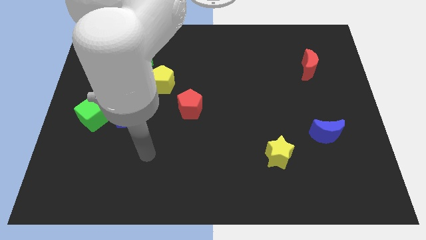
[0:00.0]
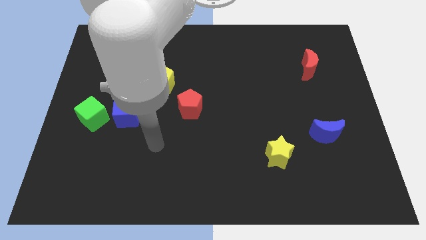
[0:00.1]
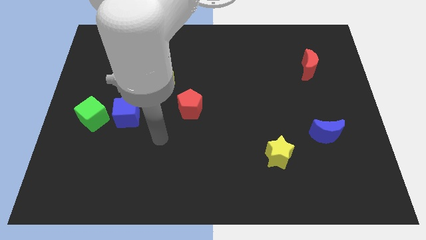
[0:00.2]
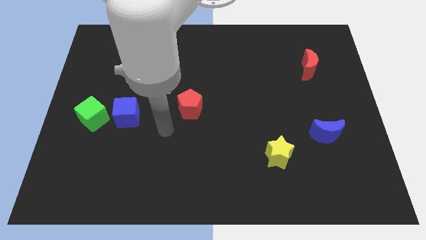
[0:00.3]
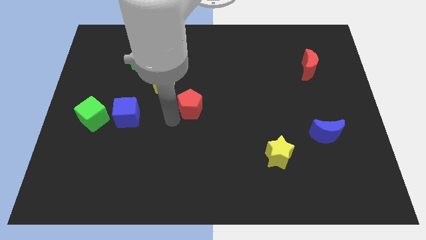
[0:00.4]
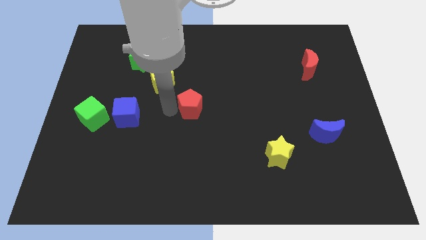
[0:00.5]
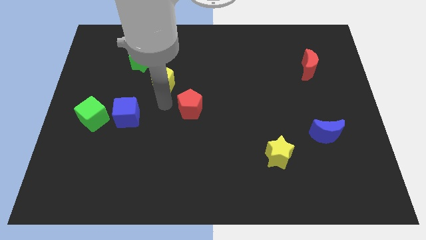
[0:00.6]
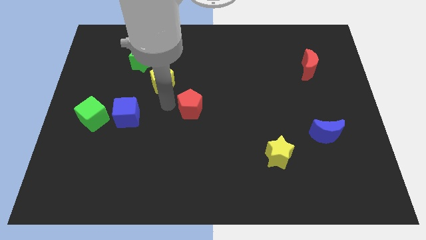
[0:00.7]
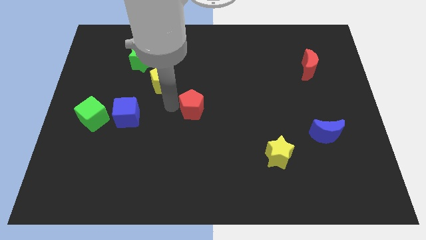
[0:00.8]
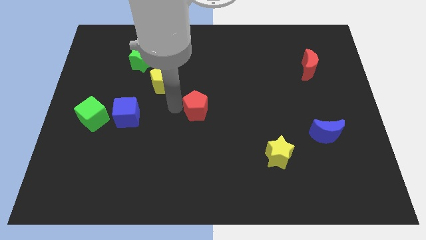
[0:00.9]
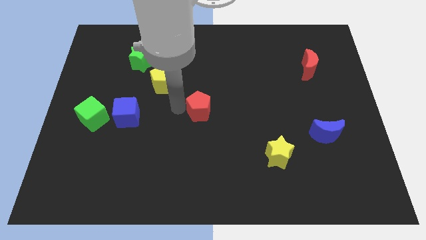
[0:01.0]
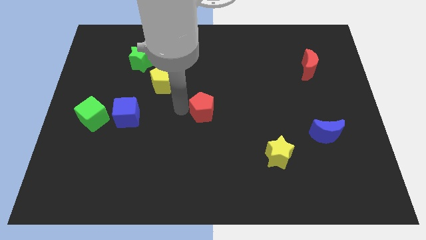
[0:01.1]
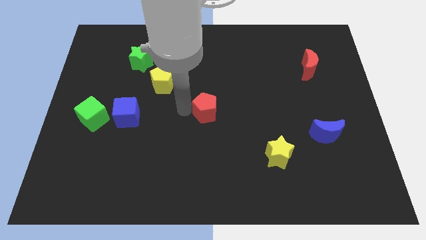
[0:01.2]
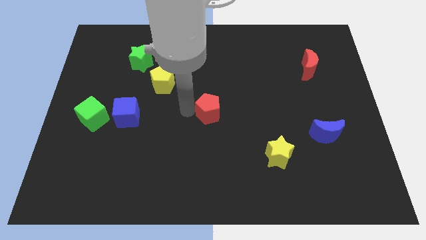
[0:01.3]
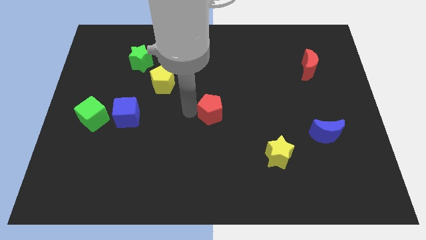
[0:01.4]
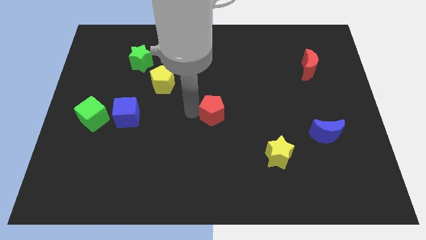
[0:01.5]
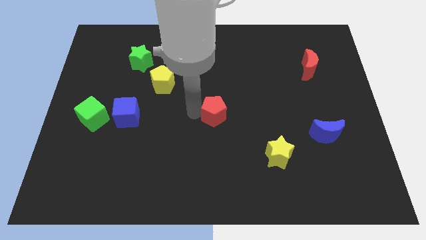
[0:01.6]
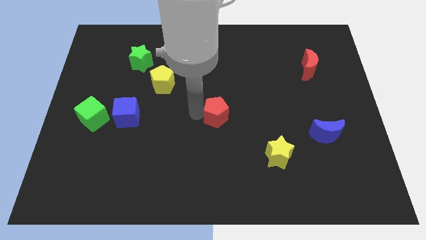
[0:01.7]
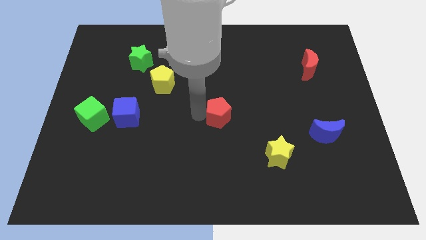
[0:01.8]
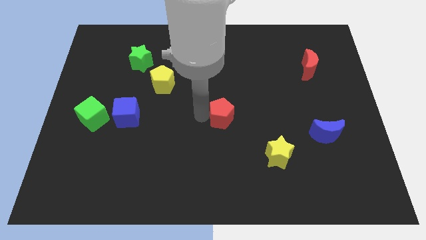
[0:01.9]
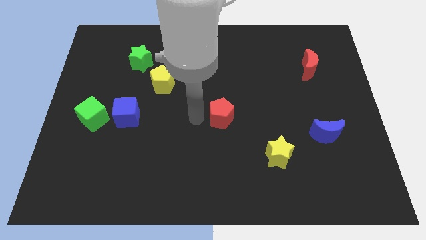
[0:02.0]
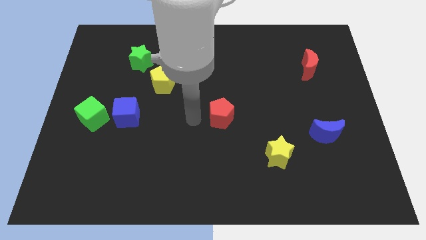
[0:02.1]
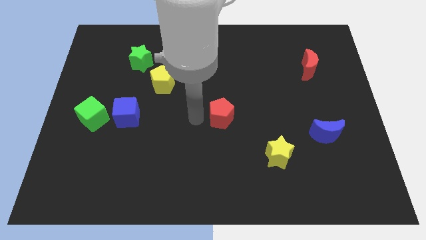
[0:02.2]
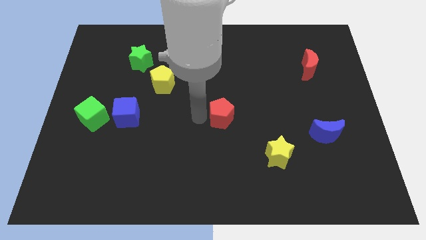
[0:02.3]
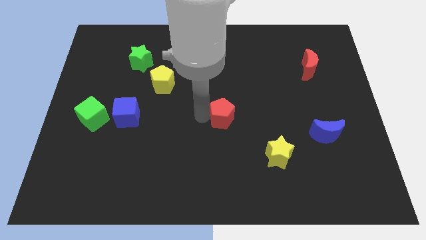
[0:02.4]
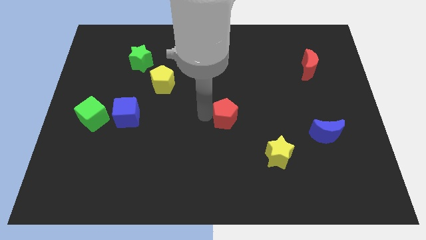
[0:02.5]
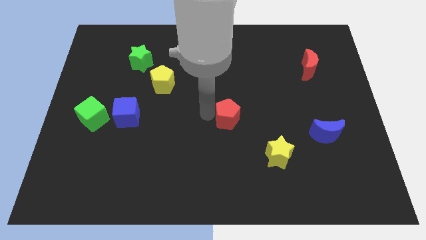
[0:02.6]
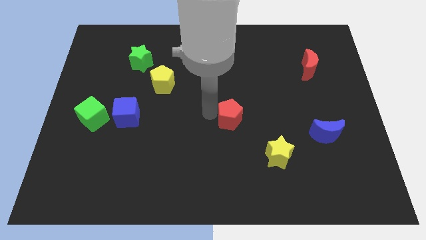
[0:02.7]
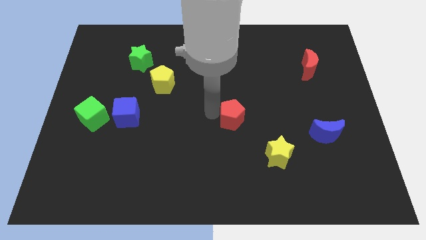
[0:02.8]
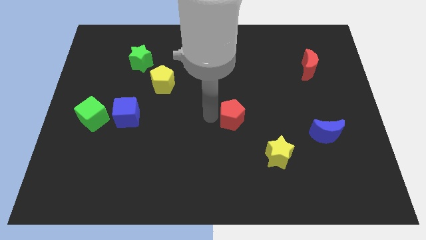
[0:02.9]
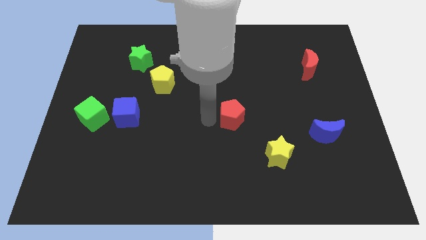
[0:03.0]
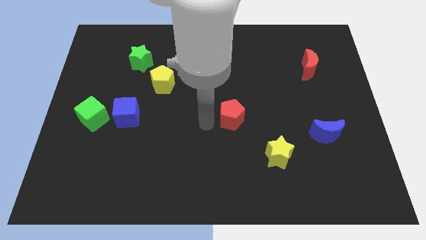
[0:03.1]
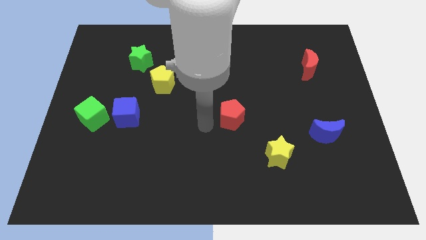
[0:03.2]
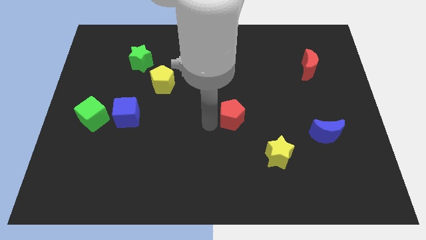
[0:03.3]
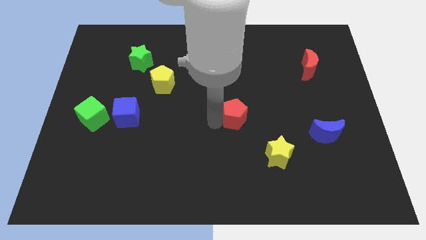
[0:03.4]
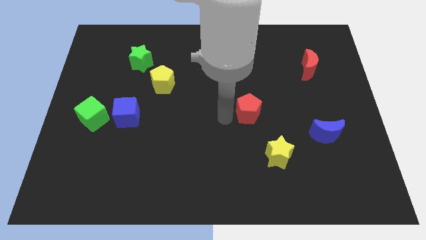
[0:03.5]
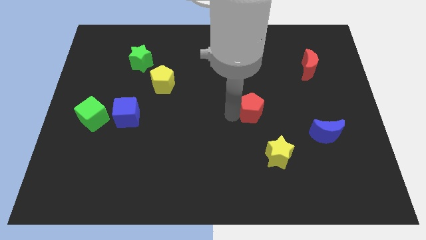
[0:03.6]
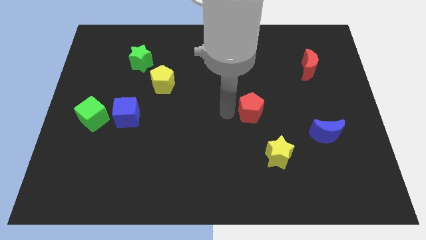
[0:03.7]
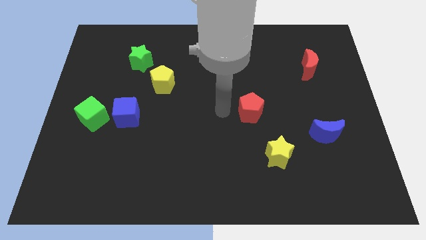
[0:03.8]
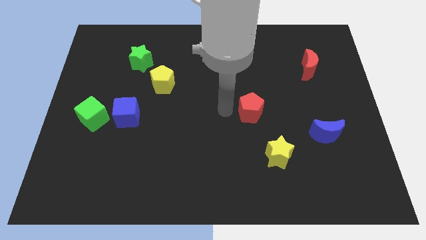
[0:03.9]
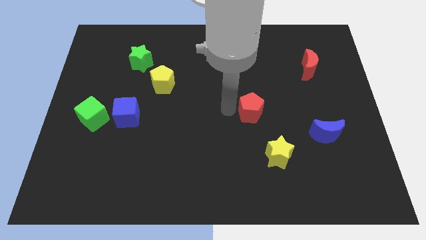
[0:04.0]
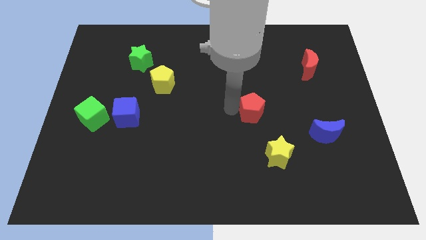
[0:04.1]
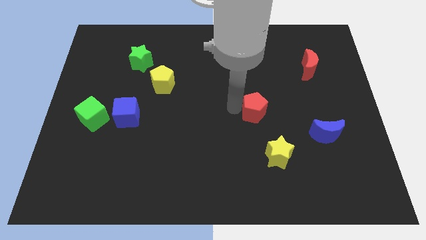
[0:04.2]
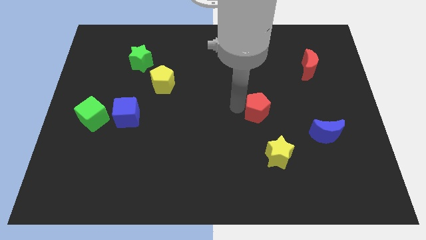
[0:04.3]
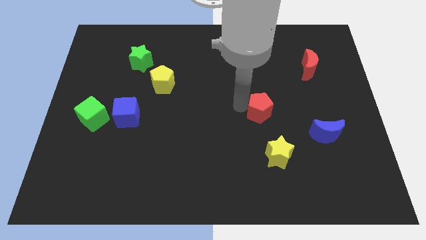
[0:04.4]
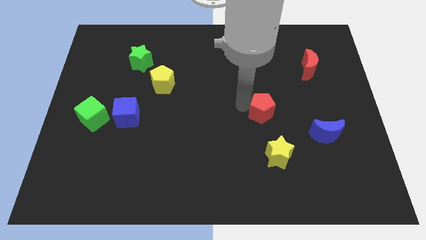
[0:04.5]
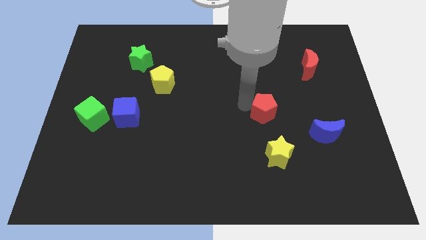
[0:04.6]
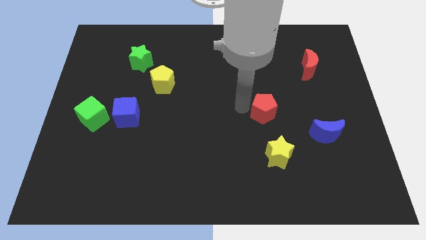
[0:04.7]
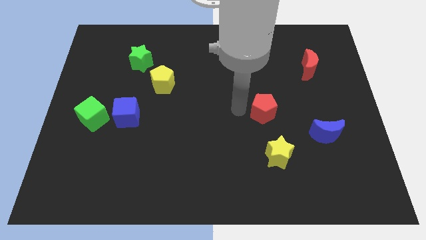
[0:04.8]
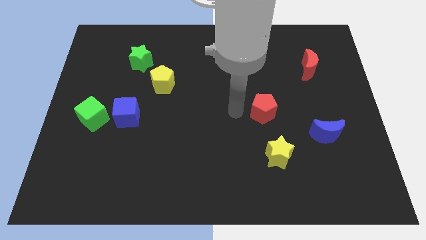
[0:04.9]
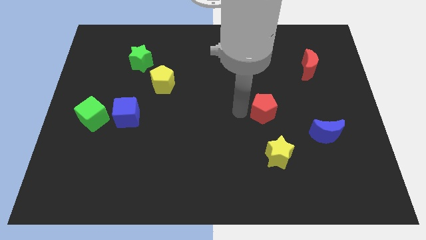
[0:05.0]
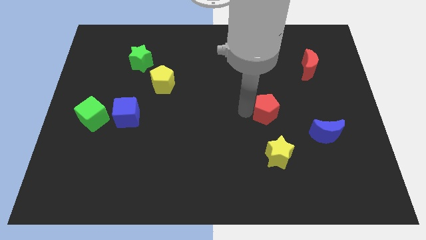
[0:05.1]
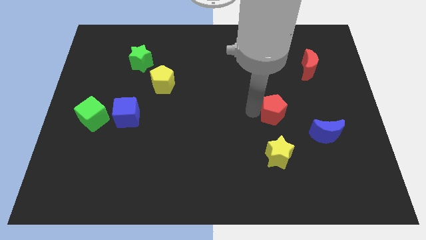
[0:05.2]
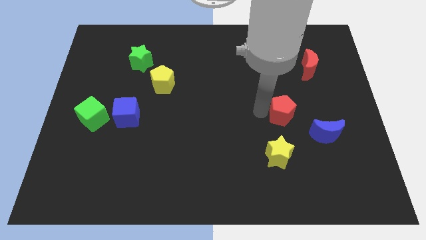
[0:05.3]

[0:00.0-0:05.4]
move the red pentagon to the right

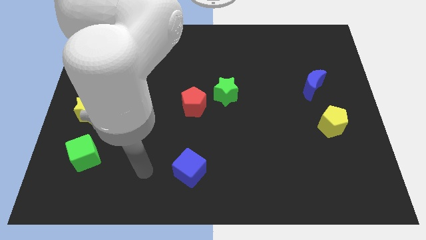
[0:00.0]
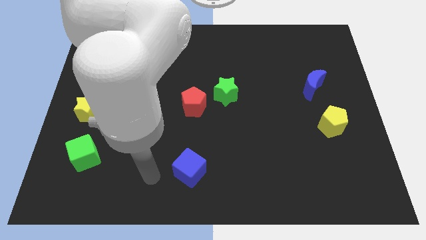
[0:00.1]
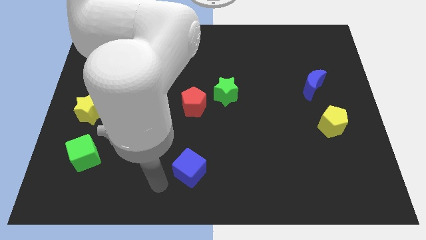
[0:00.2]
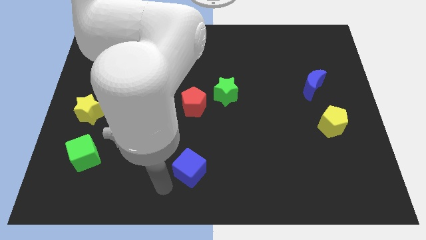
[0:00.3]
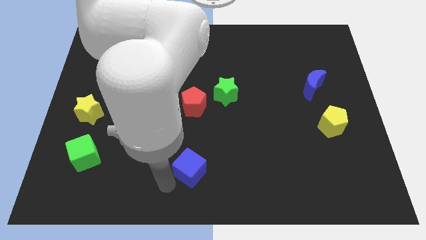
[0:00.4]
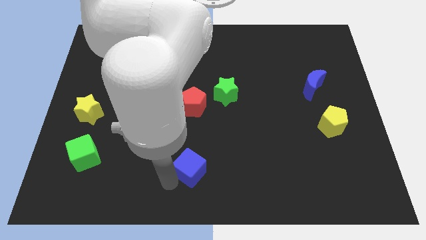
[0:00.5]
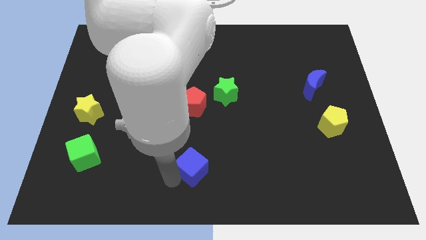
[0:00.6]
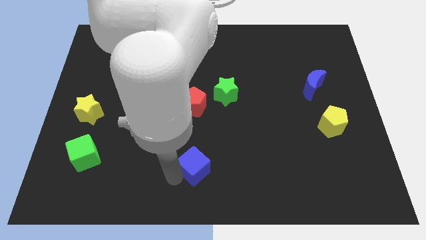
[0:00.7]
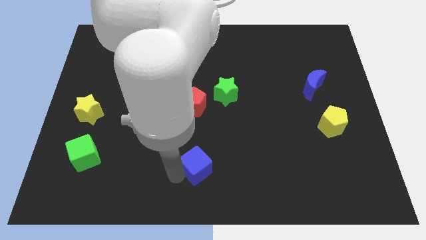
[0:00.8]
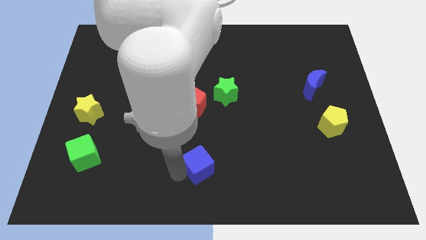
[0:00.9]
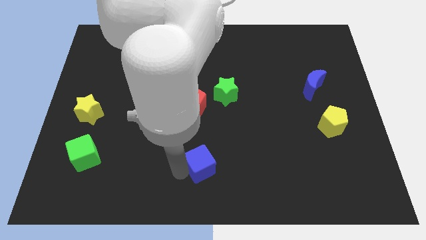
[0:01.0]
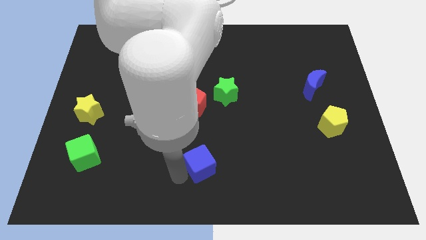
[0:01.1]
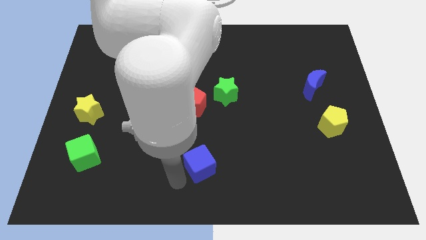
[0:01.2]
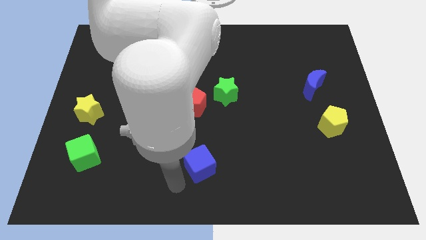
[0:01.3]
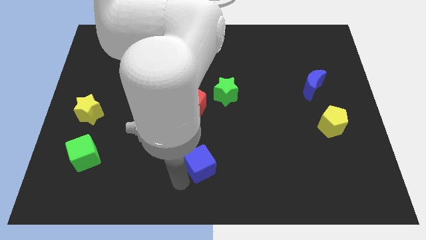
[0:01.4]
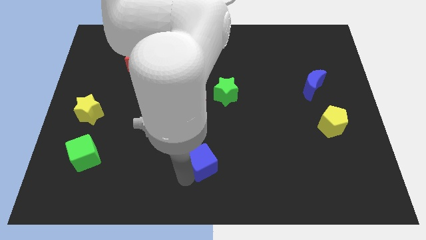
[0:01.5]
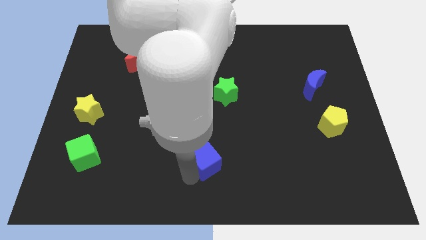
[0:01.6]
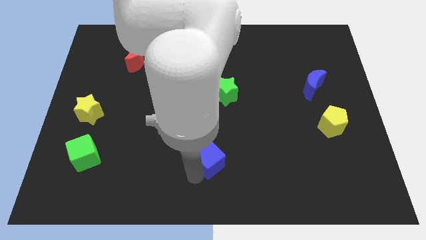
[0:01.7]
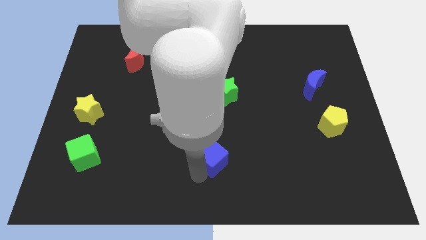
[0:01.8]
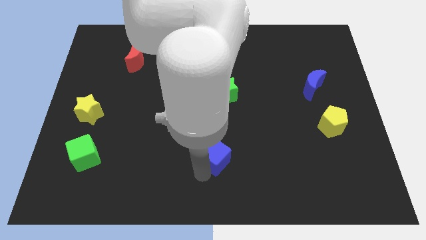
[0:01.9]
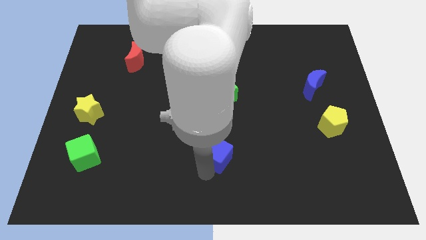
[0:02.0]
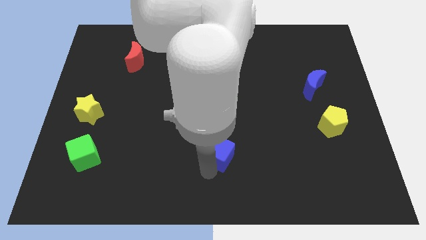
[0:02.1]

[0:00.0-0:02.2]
slightly slide the blue cube up and to the right

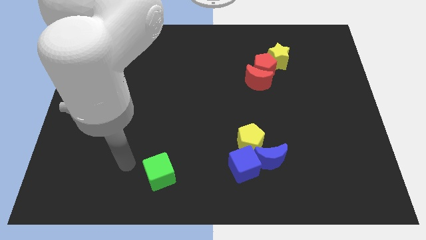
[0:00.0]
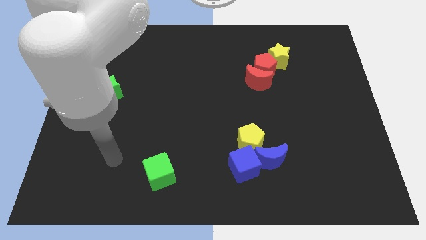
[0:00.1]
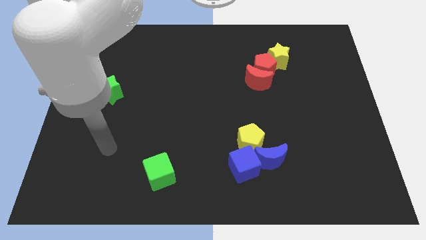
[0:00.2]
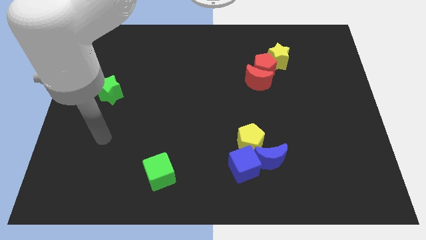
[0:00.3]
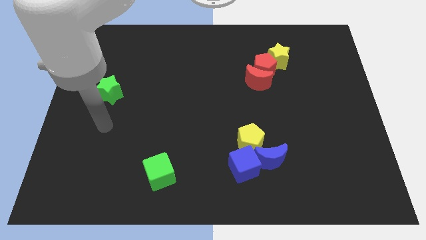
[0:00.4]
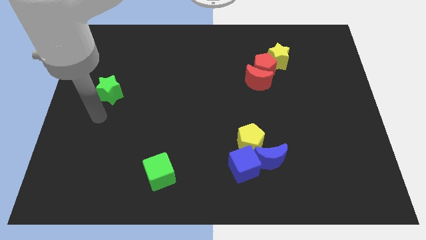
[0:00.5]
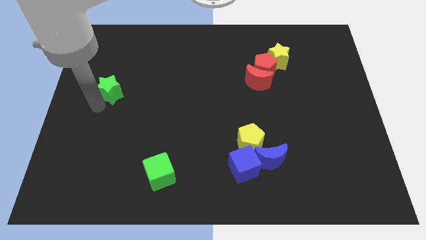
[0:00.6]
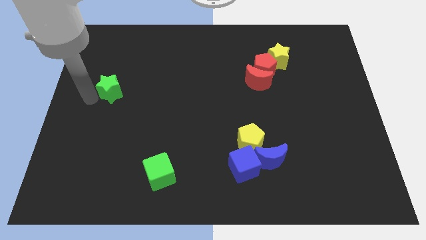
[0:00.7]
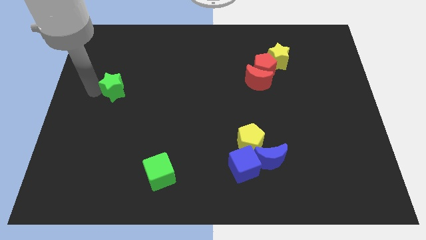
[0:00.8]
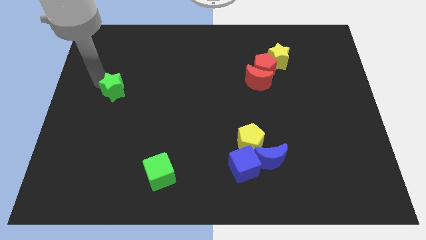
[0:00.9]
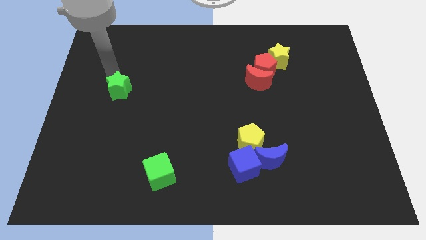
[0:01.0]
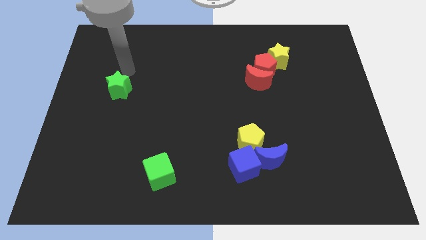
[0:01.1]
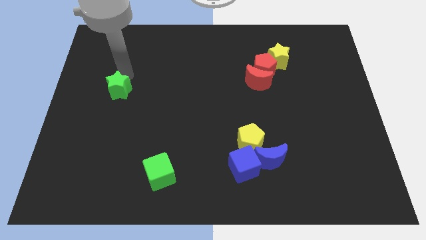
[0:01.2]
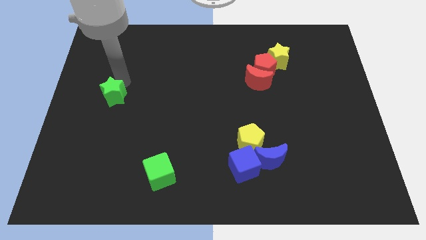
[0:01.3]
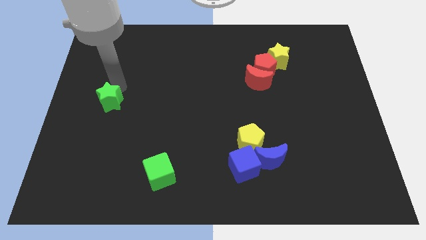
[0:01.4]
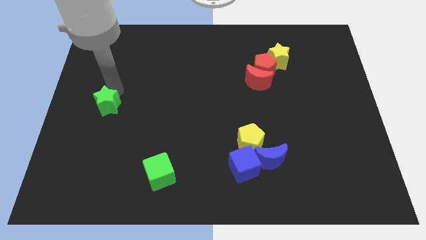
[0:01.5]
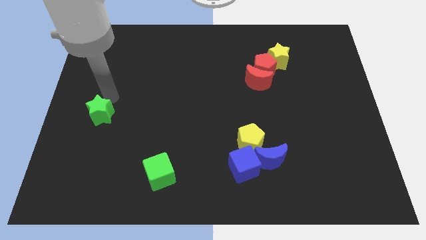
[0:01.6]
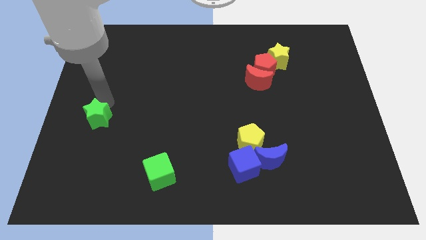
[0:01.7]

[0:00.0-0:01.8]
slightly slide the green star down
